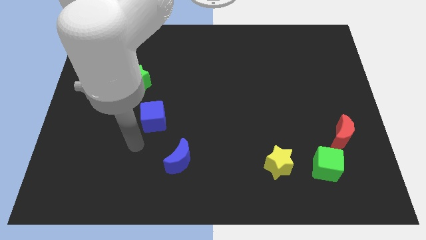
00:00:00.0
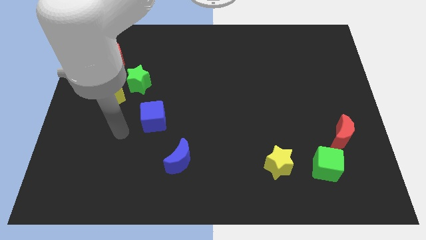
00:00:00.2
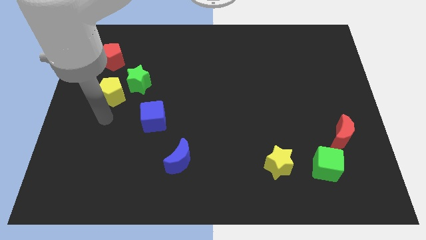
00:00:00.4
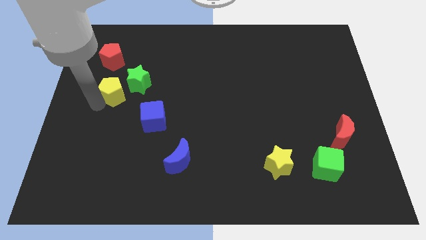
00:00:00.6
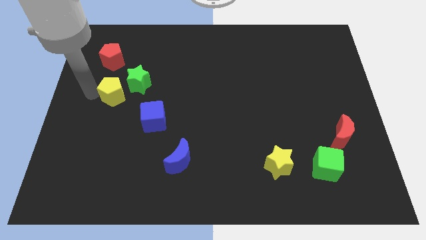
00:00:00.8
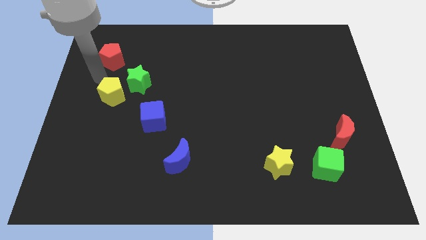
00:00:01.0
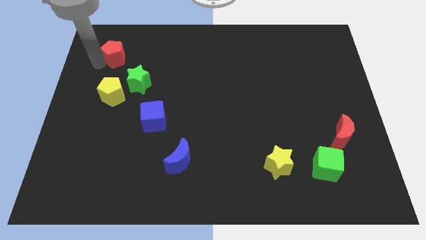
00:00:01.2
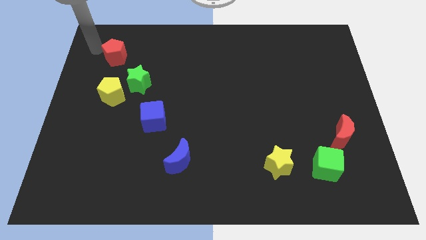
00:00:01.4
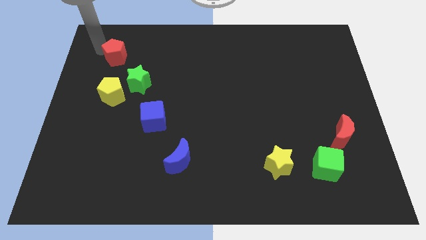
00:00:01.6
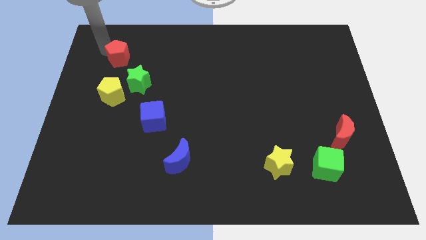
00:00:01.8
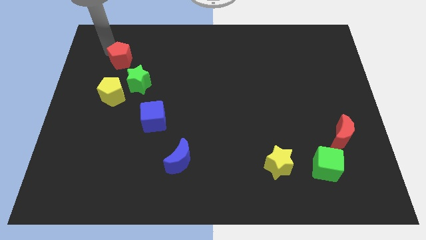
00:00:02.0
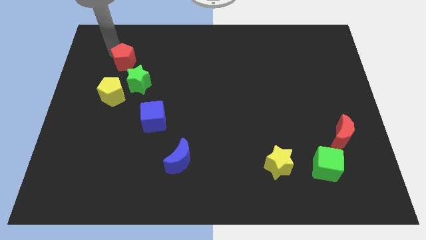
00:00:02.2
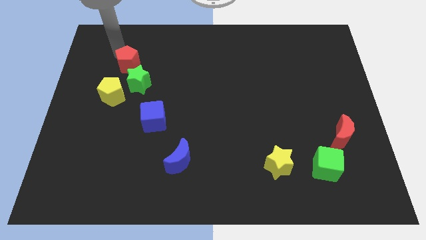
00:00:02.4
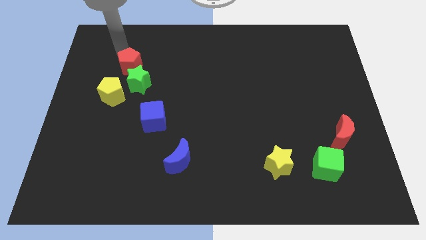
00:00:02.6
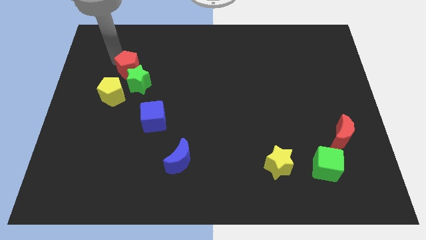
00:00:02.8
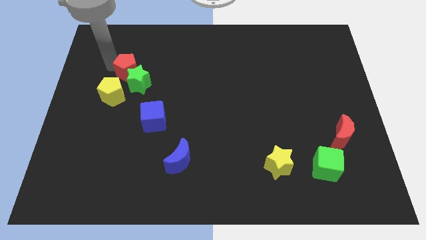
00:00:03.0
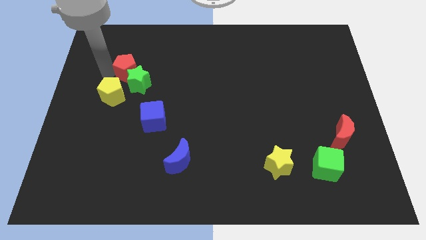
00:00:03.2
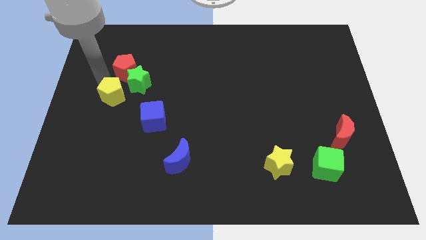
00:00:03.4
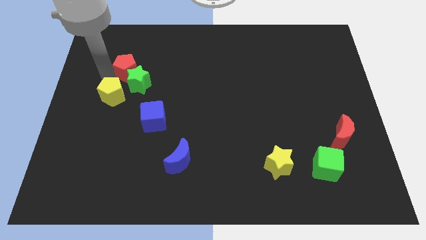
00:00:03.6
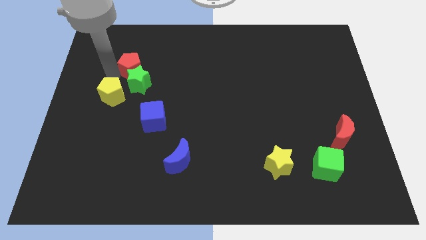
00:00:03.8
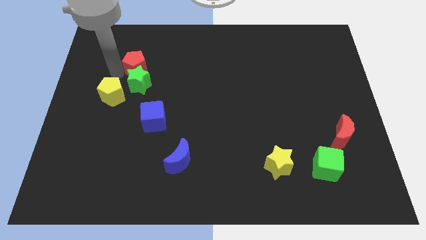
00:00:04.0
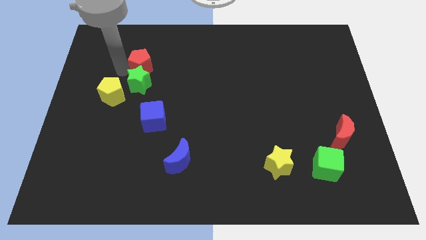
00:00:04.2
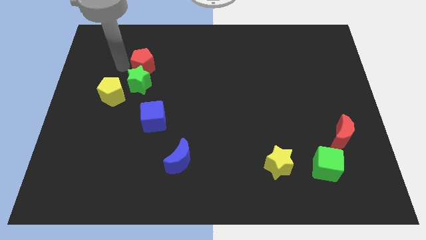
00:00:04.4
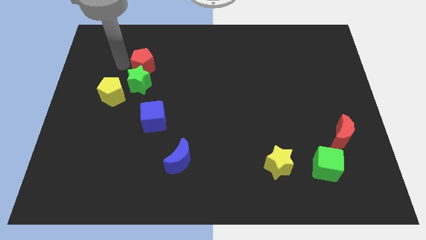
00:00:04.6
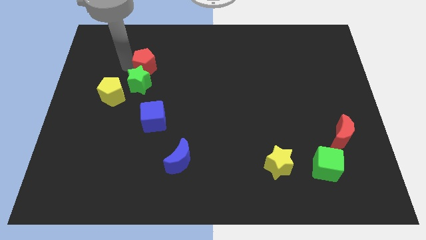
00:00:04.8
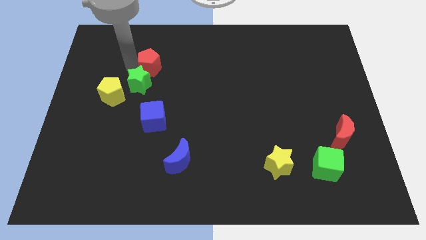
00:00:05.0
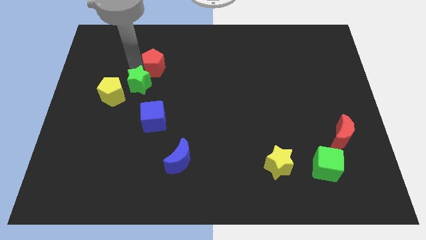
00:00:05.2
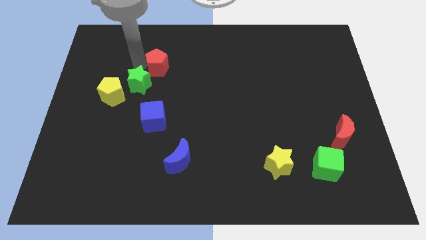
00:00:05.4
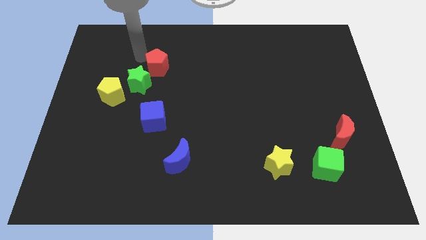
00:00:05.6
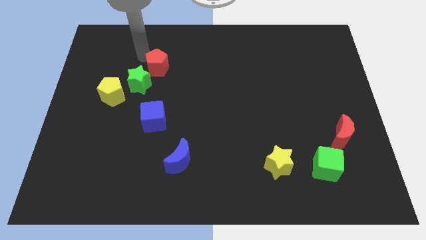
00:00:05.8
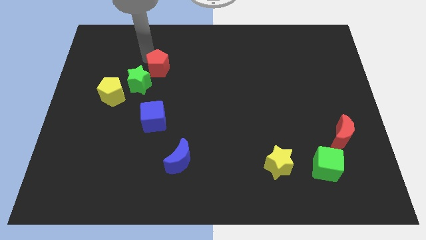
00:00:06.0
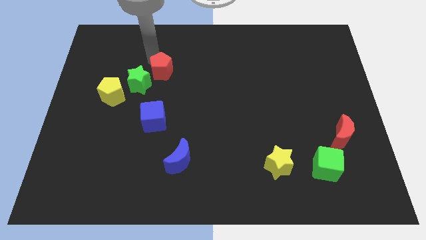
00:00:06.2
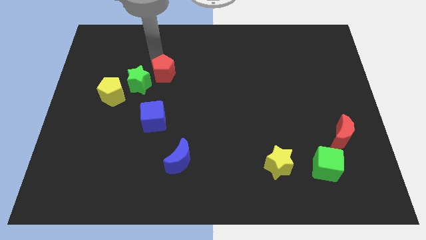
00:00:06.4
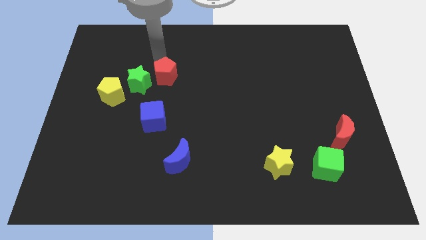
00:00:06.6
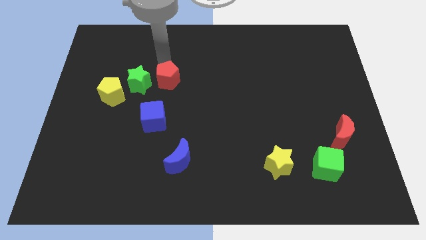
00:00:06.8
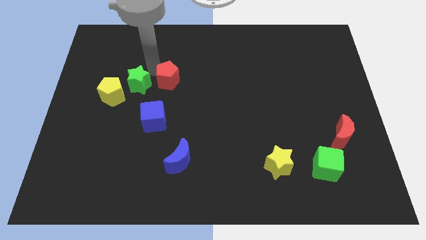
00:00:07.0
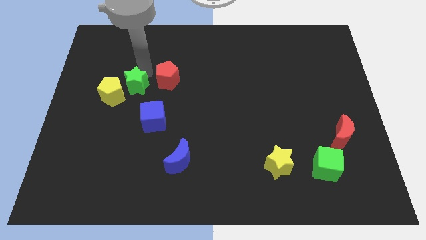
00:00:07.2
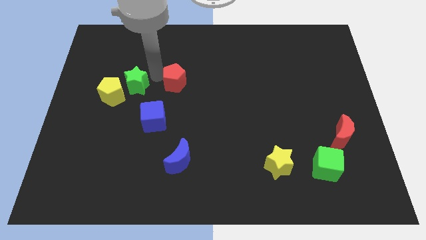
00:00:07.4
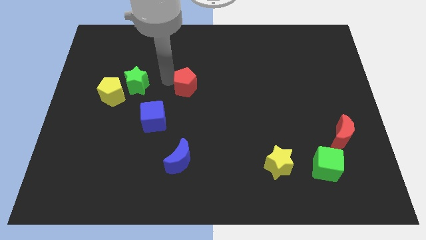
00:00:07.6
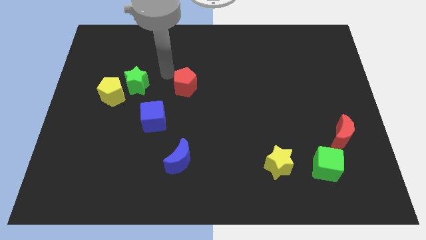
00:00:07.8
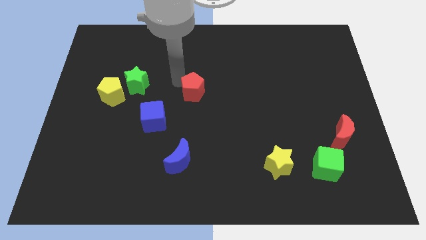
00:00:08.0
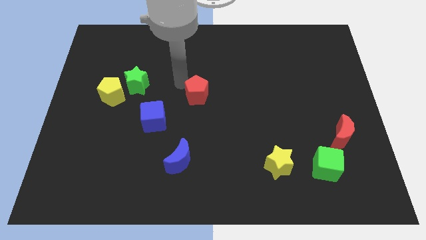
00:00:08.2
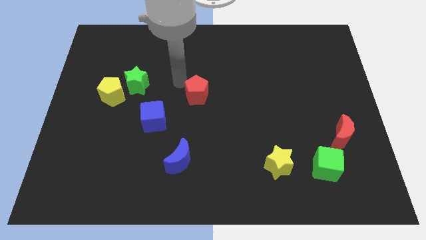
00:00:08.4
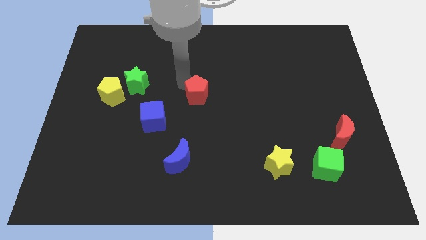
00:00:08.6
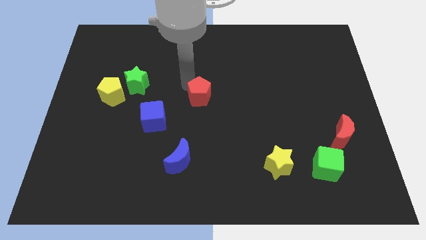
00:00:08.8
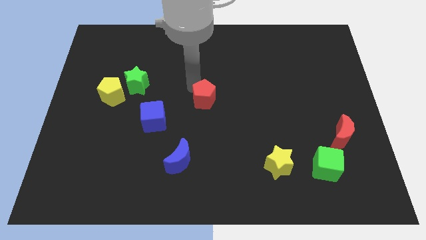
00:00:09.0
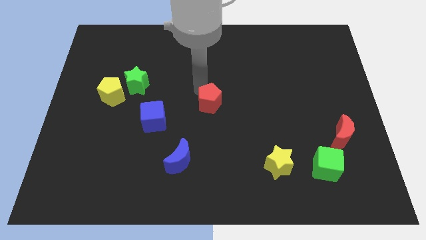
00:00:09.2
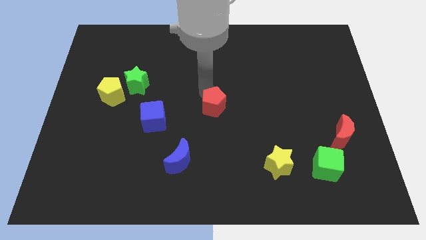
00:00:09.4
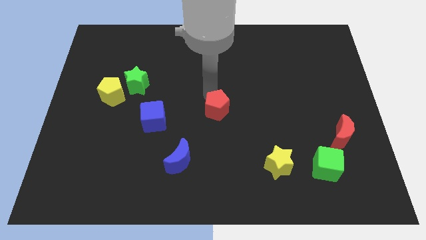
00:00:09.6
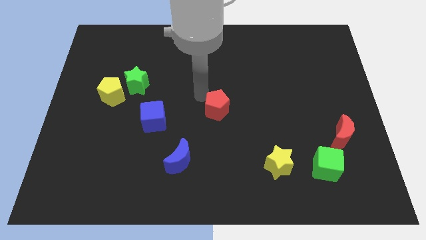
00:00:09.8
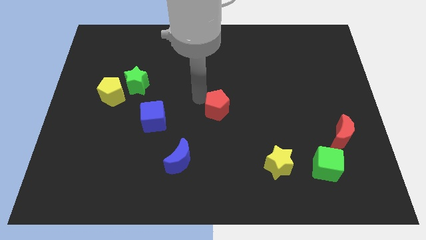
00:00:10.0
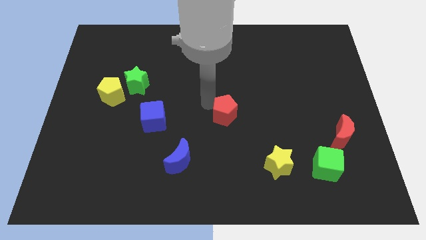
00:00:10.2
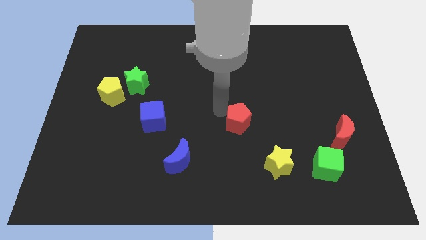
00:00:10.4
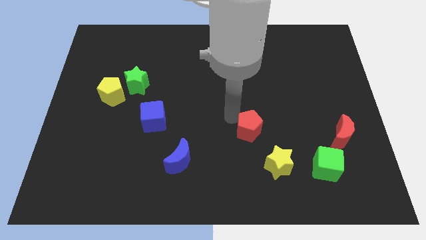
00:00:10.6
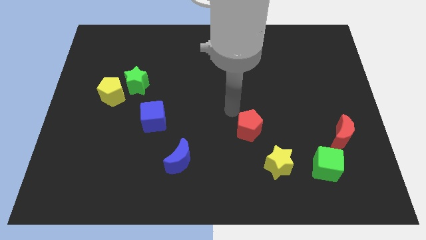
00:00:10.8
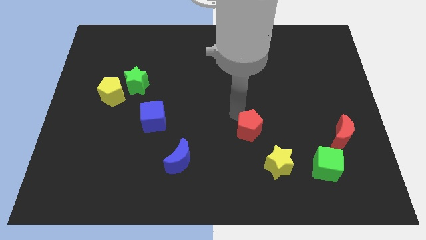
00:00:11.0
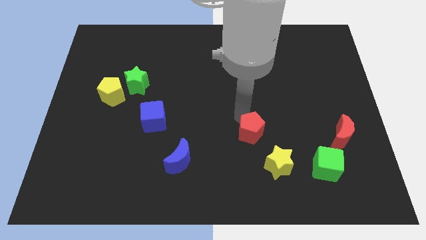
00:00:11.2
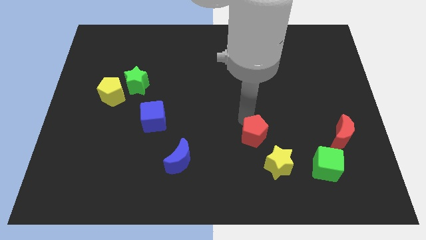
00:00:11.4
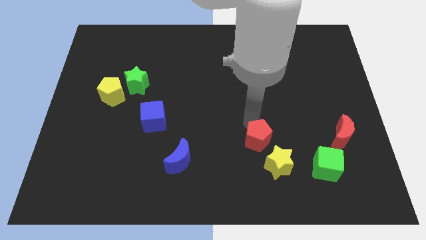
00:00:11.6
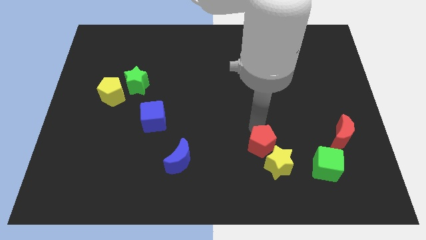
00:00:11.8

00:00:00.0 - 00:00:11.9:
put the red pentagon close to the yellow star

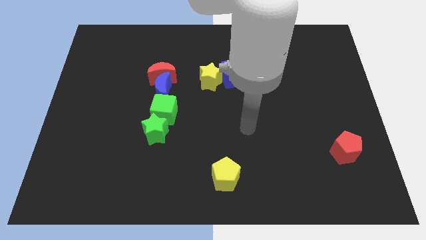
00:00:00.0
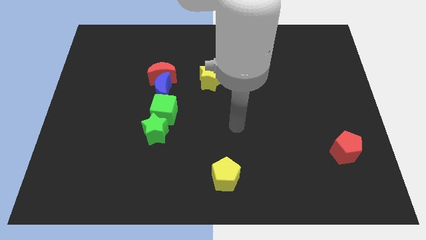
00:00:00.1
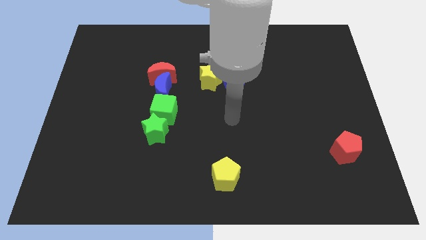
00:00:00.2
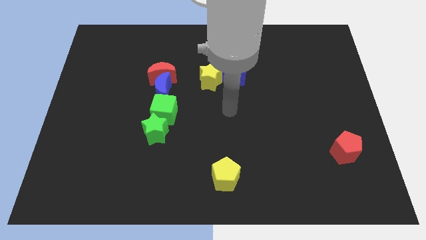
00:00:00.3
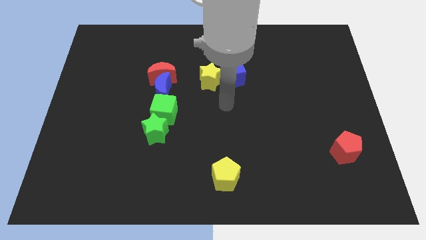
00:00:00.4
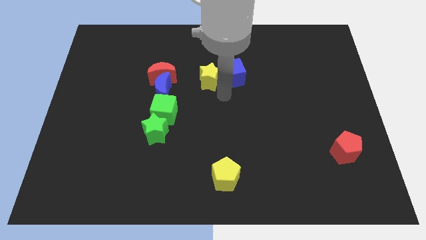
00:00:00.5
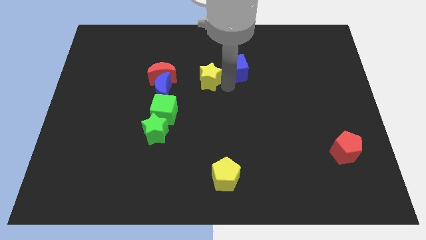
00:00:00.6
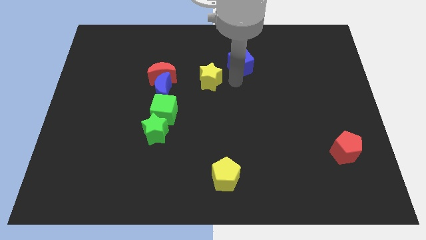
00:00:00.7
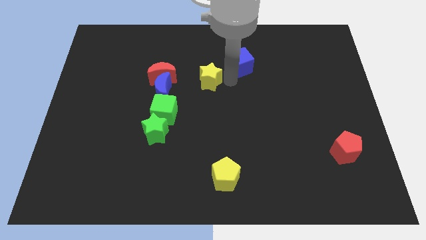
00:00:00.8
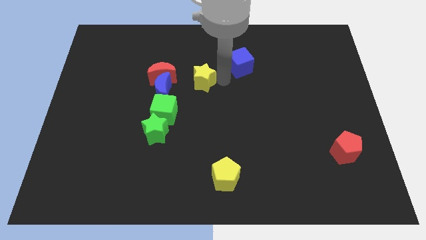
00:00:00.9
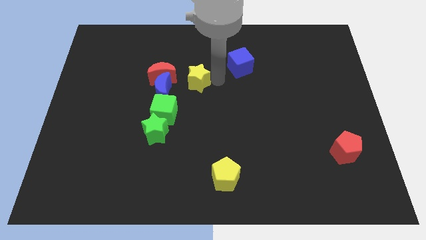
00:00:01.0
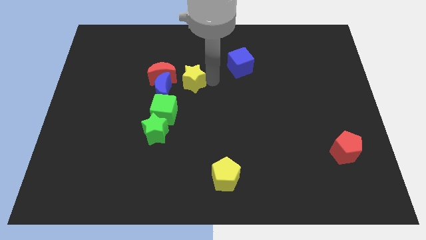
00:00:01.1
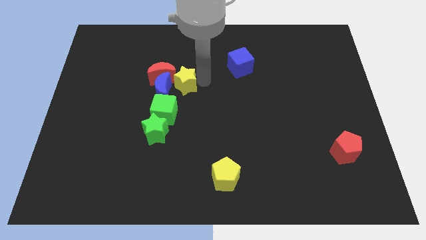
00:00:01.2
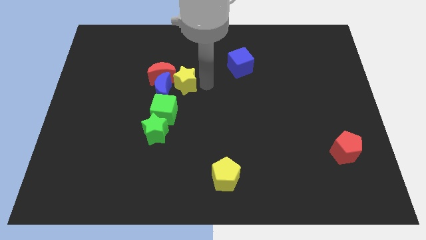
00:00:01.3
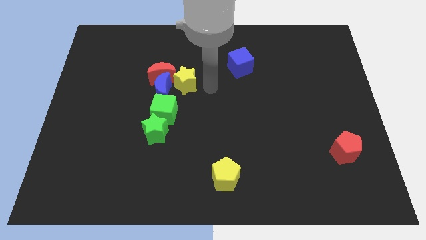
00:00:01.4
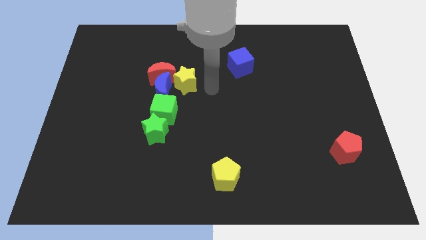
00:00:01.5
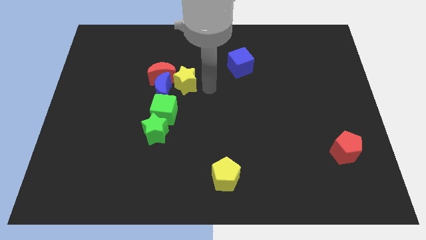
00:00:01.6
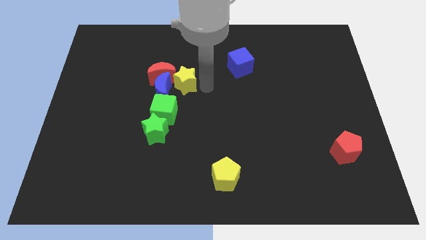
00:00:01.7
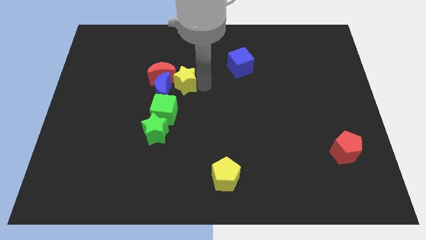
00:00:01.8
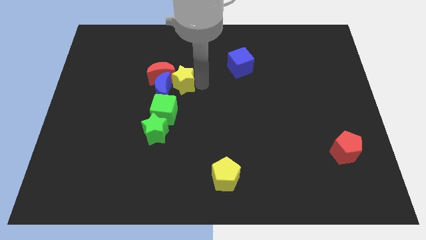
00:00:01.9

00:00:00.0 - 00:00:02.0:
move the yellow star close to the red moon

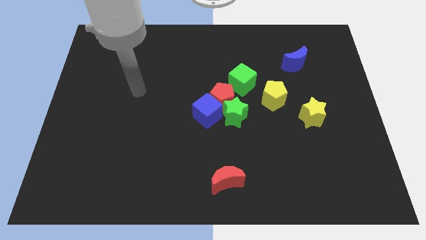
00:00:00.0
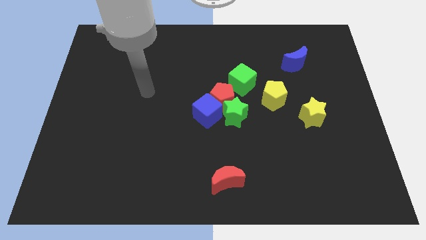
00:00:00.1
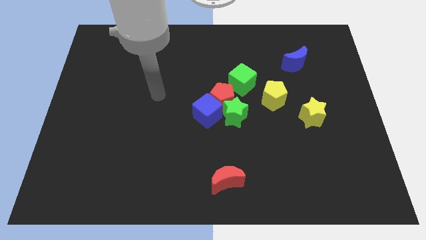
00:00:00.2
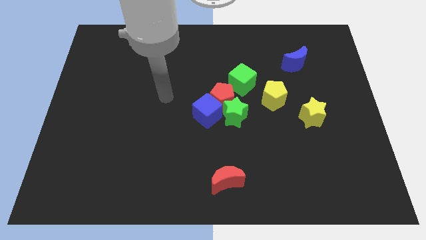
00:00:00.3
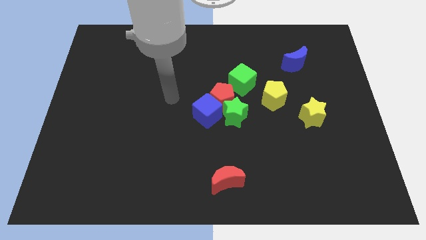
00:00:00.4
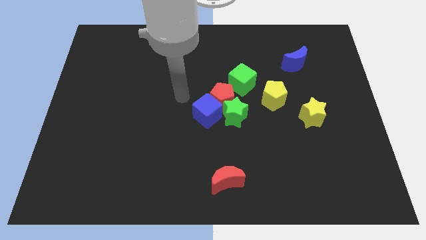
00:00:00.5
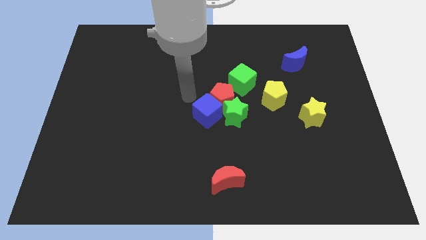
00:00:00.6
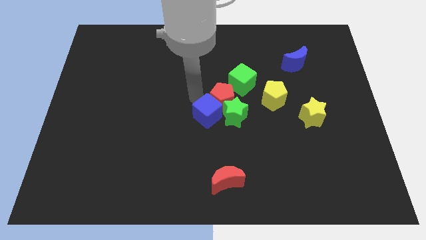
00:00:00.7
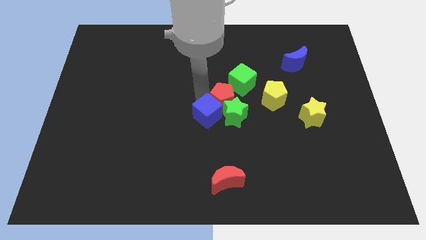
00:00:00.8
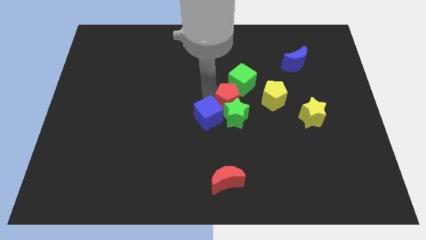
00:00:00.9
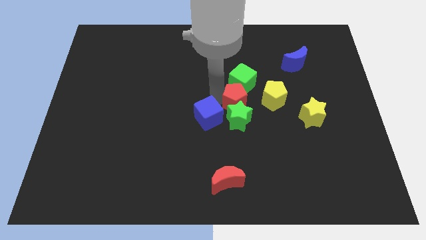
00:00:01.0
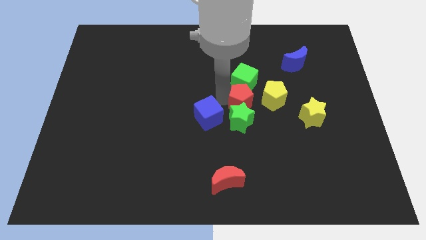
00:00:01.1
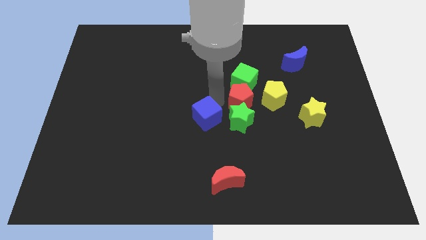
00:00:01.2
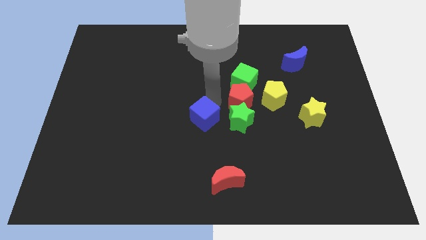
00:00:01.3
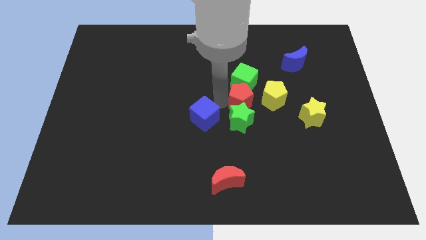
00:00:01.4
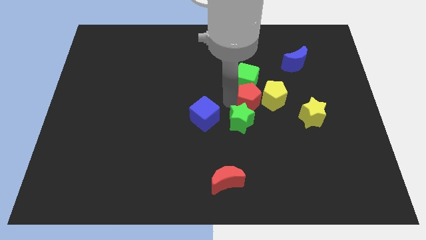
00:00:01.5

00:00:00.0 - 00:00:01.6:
put the red pentagon next to the yellow pentagon
